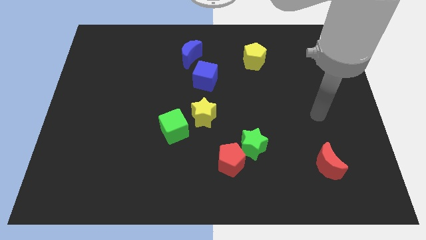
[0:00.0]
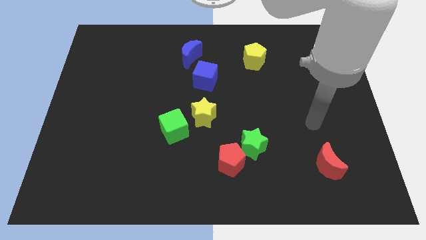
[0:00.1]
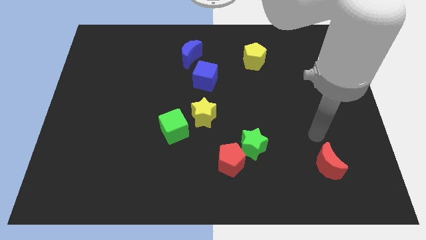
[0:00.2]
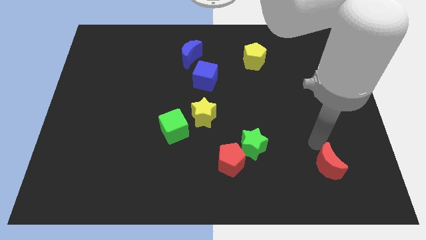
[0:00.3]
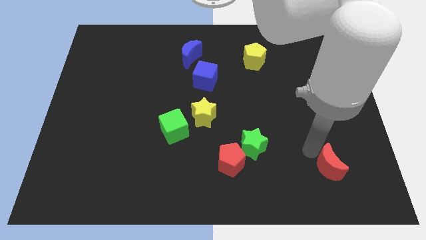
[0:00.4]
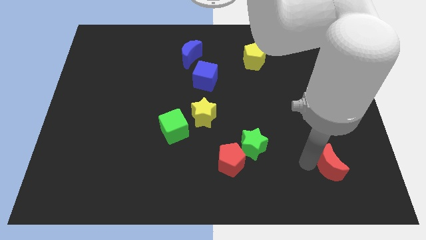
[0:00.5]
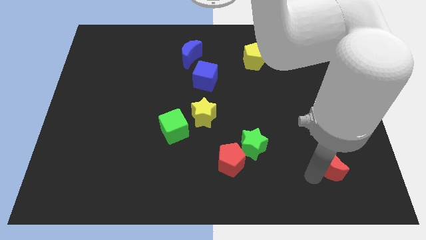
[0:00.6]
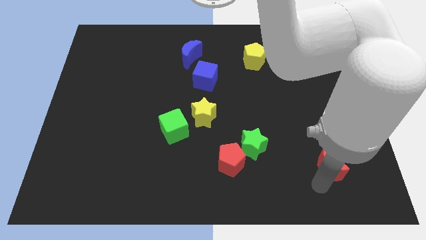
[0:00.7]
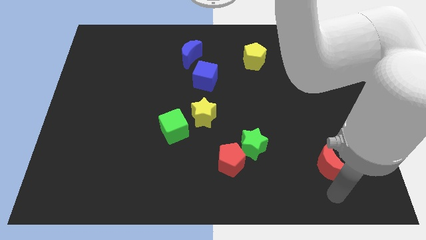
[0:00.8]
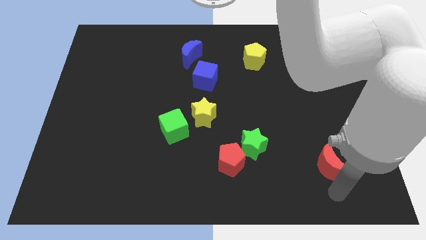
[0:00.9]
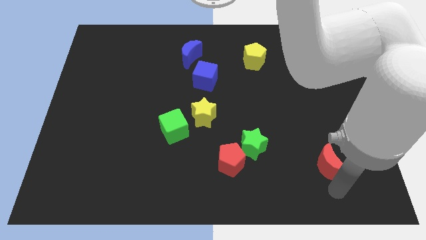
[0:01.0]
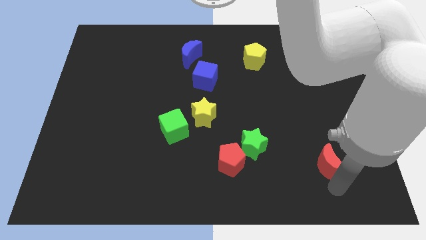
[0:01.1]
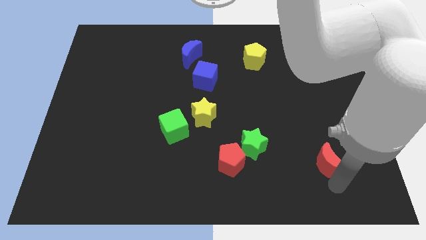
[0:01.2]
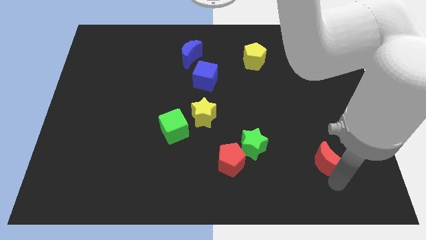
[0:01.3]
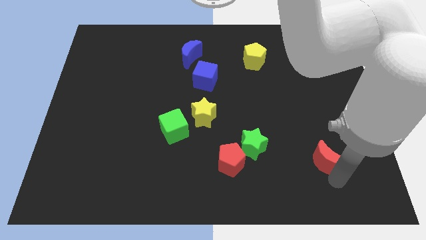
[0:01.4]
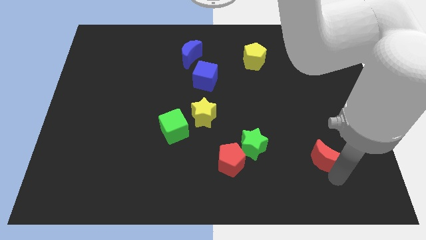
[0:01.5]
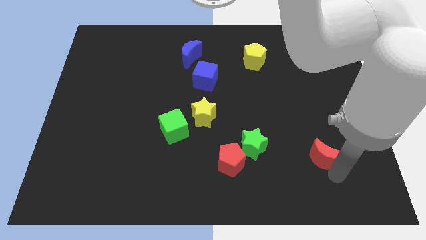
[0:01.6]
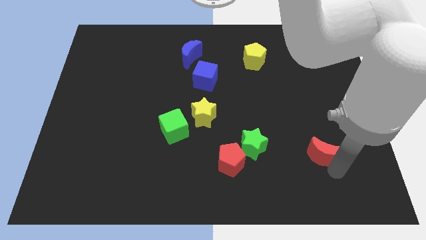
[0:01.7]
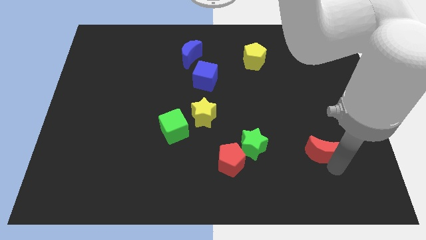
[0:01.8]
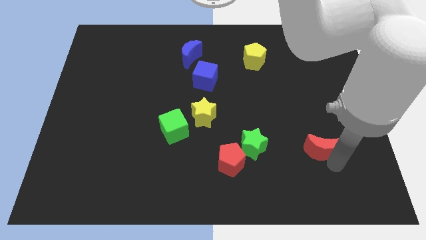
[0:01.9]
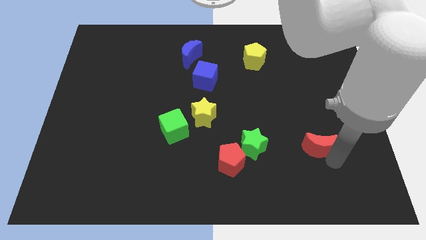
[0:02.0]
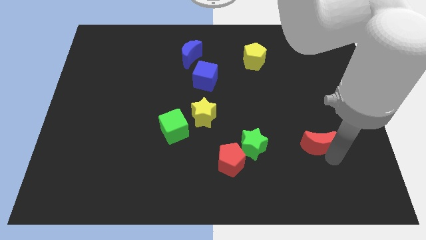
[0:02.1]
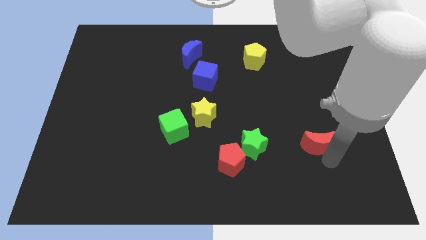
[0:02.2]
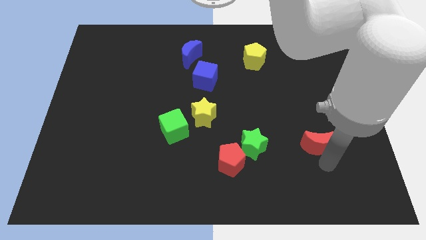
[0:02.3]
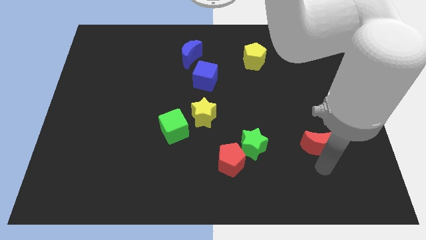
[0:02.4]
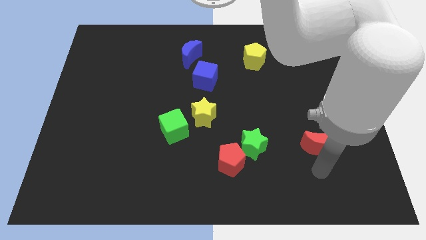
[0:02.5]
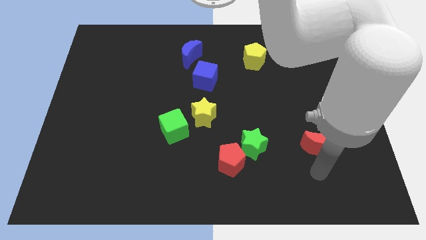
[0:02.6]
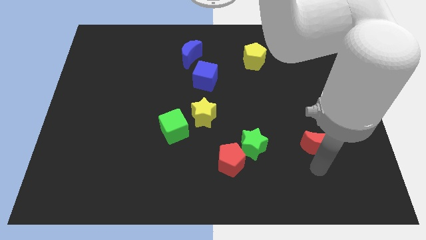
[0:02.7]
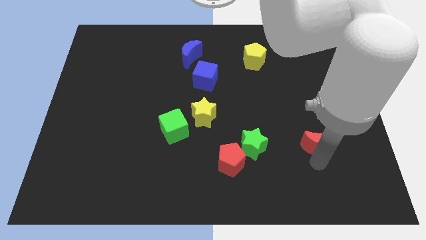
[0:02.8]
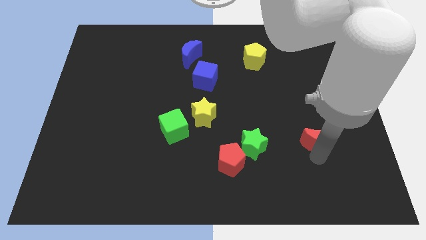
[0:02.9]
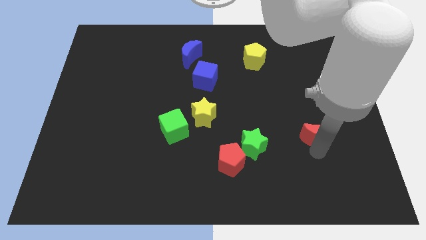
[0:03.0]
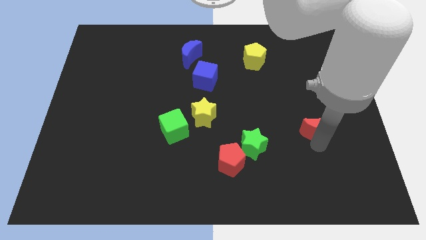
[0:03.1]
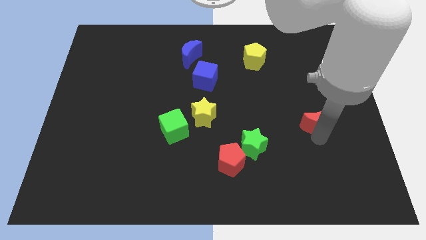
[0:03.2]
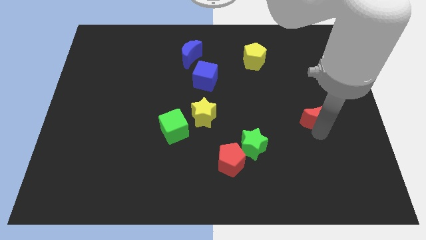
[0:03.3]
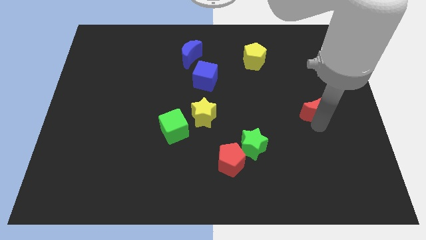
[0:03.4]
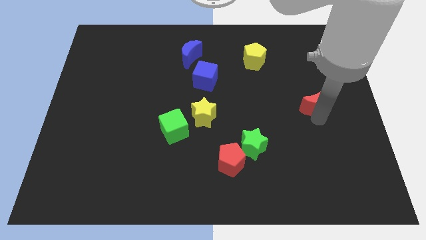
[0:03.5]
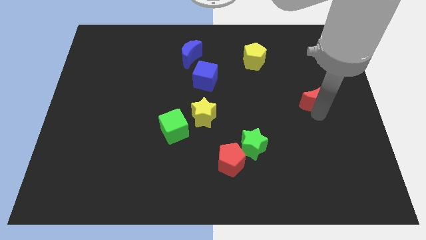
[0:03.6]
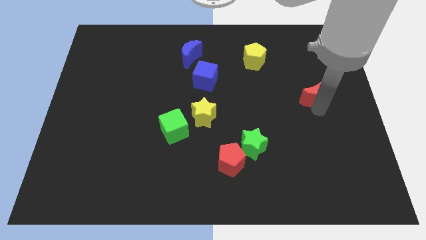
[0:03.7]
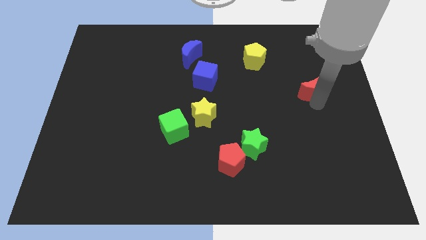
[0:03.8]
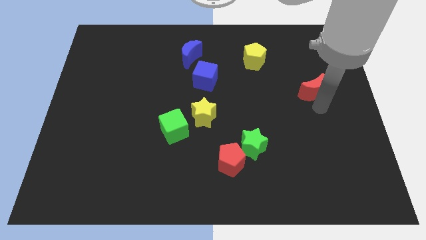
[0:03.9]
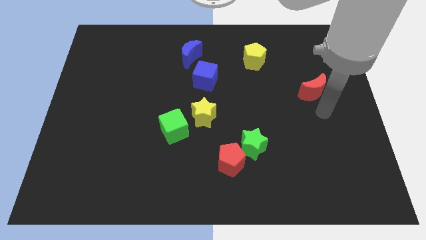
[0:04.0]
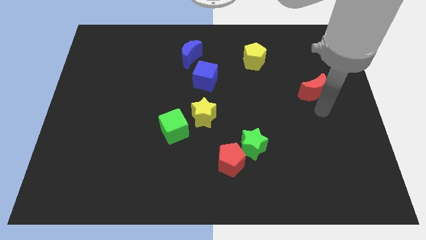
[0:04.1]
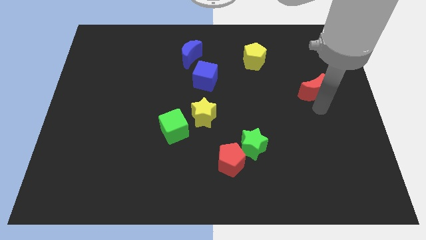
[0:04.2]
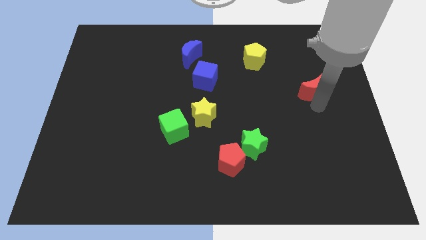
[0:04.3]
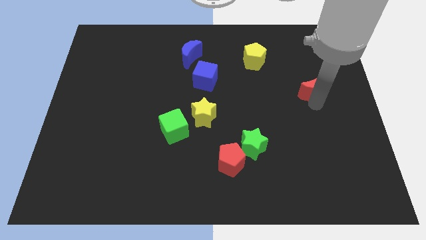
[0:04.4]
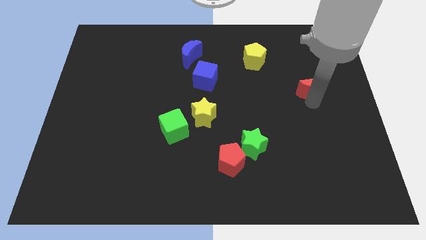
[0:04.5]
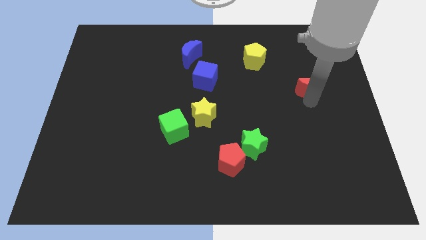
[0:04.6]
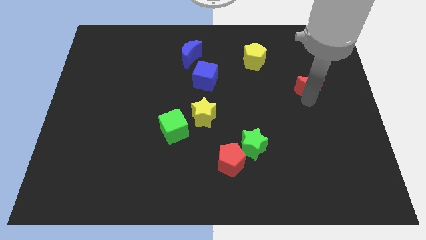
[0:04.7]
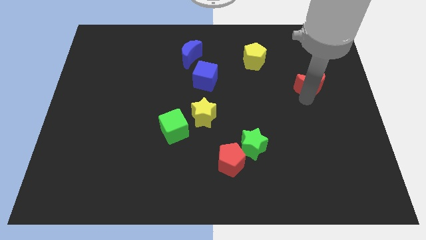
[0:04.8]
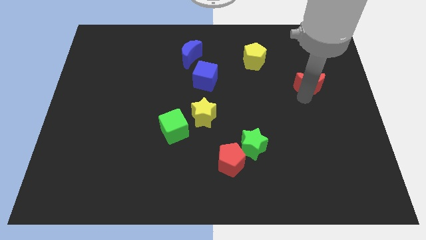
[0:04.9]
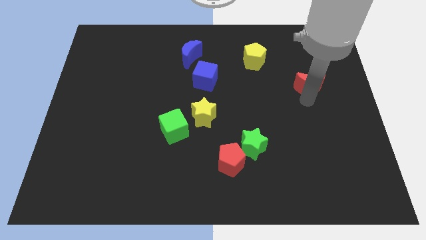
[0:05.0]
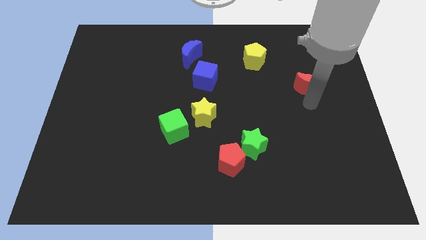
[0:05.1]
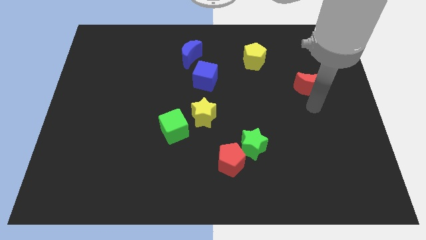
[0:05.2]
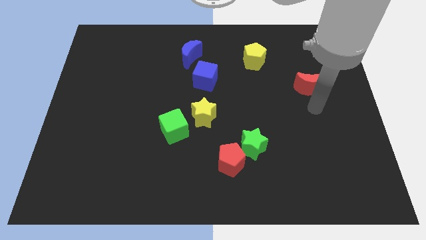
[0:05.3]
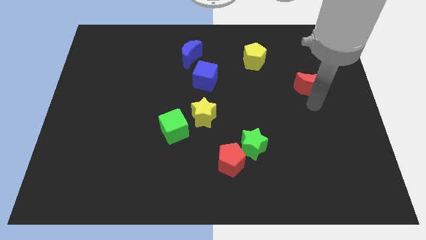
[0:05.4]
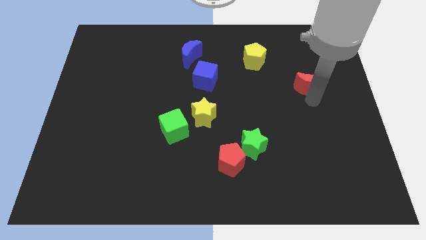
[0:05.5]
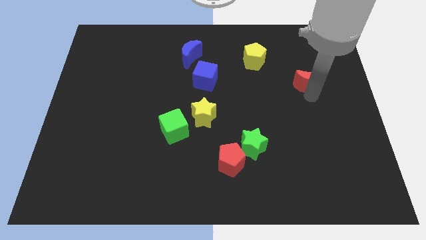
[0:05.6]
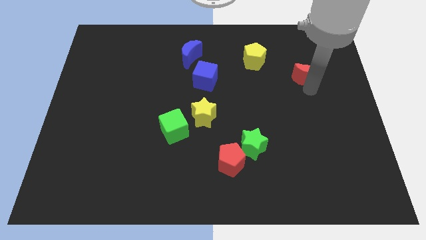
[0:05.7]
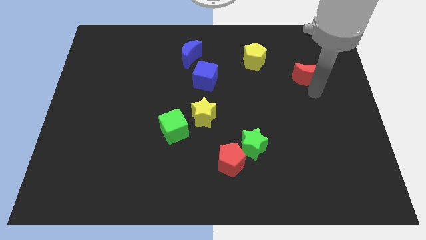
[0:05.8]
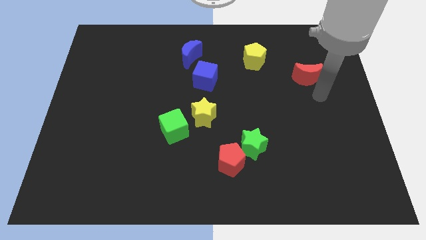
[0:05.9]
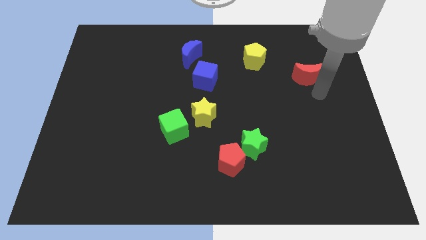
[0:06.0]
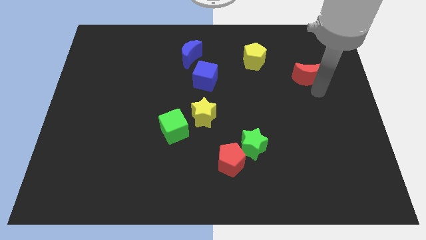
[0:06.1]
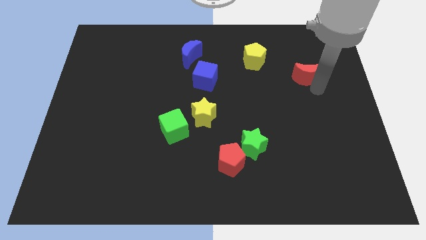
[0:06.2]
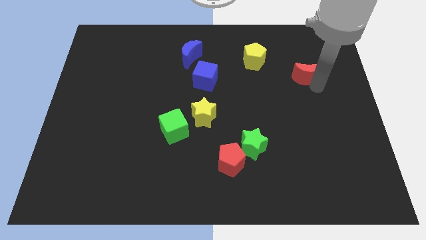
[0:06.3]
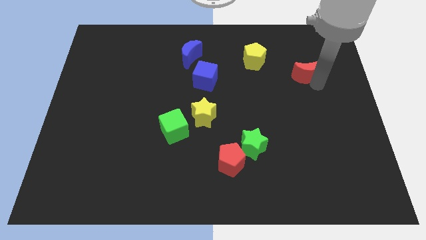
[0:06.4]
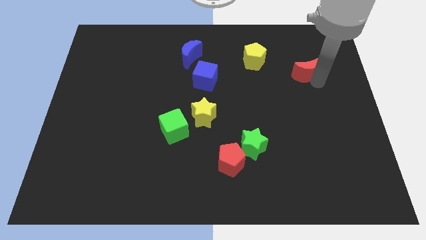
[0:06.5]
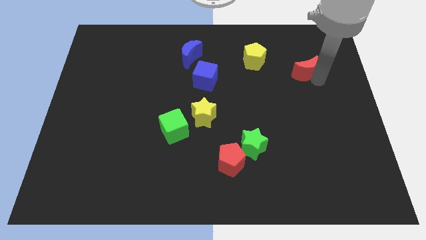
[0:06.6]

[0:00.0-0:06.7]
push the red moon right of the yellow pentagon

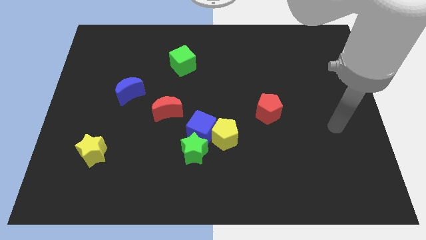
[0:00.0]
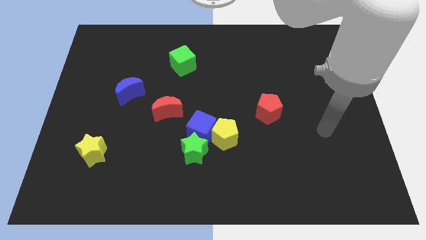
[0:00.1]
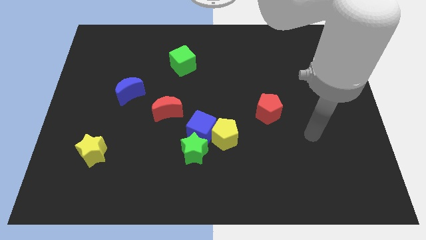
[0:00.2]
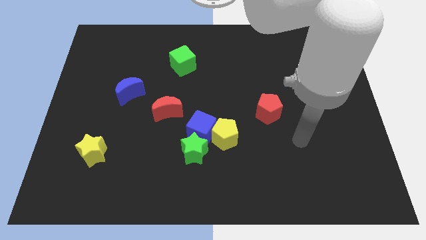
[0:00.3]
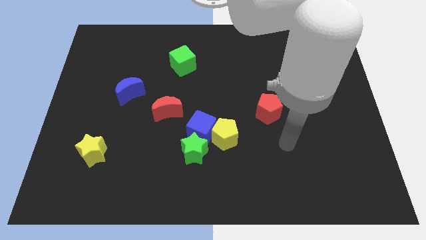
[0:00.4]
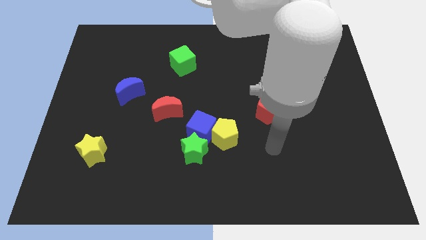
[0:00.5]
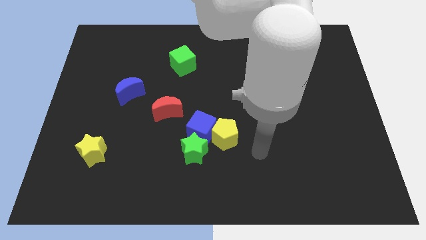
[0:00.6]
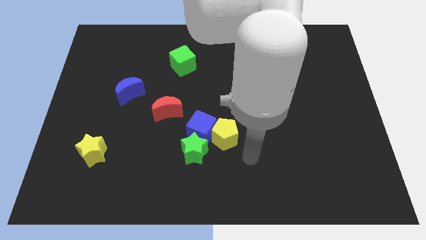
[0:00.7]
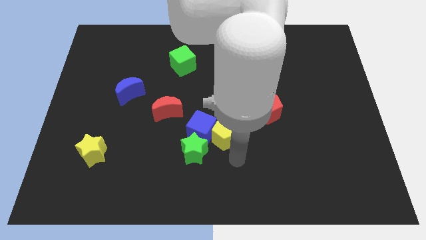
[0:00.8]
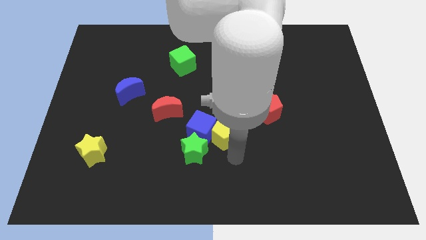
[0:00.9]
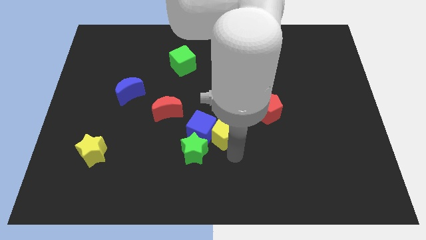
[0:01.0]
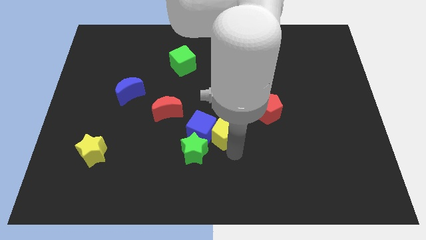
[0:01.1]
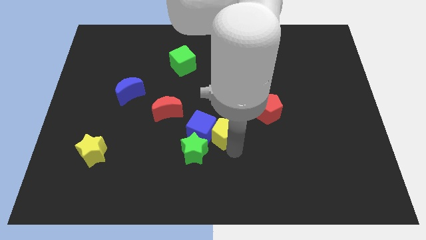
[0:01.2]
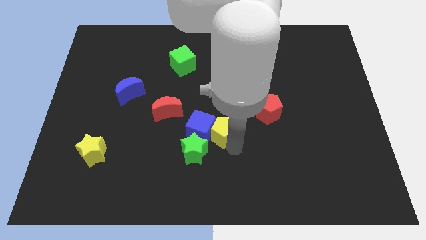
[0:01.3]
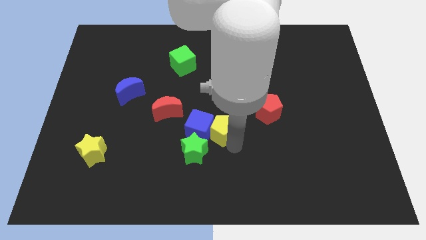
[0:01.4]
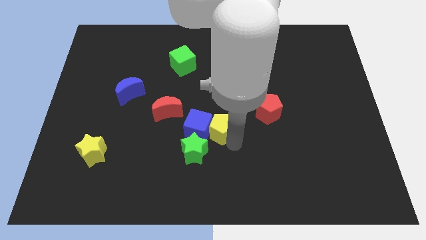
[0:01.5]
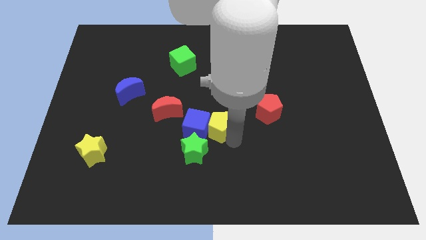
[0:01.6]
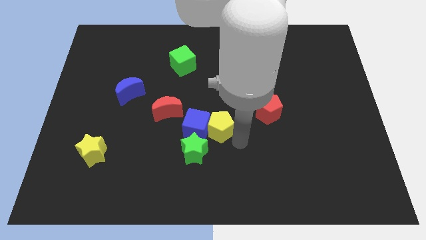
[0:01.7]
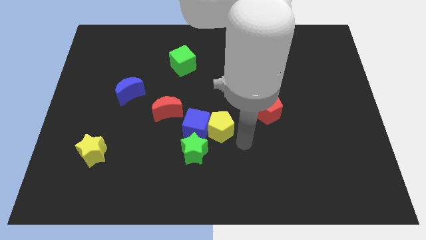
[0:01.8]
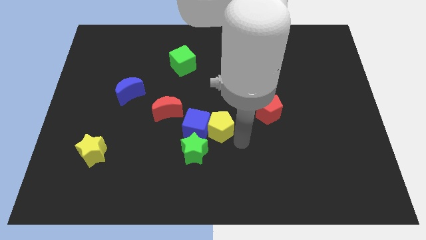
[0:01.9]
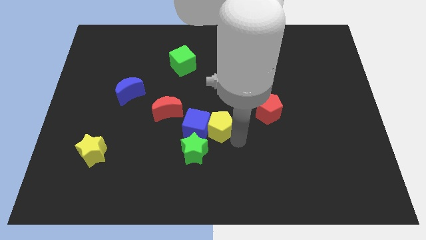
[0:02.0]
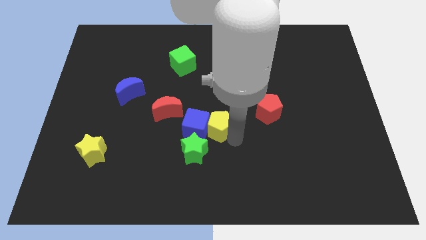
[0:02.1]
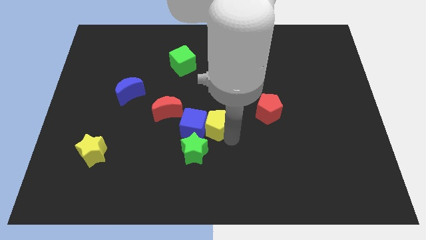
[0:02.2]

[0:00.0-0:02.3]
put the yellow pentagon to the top side of the green star
